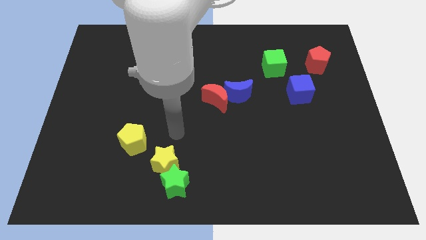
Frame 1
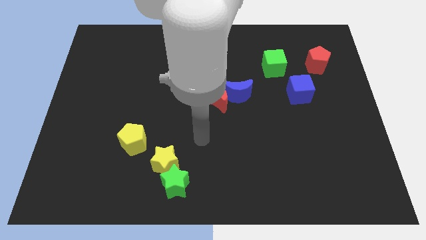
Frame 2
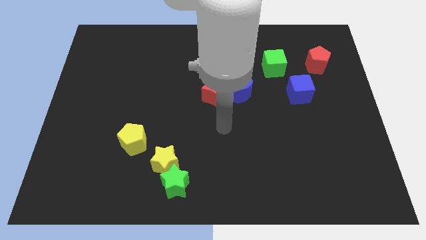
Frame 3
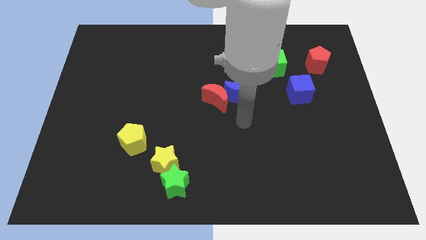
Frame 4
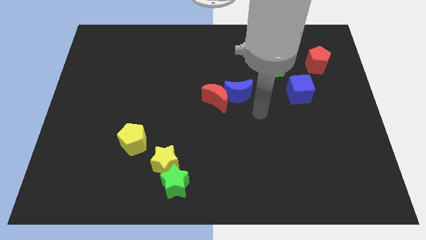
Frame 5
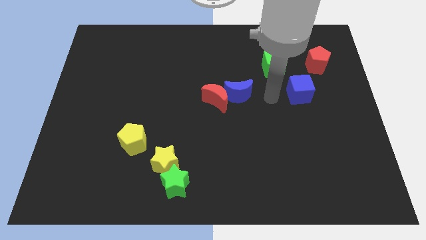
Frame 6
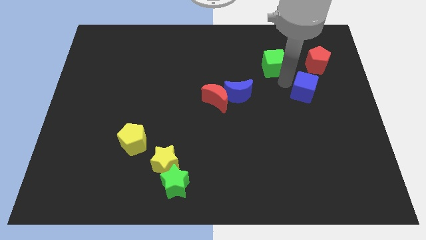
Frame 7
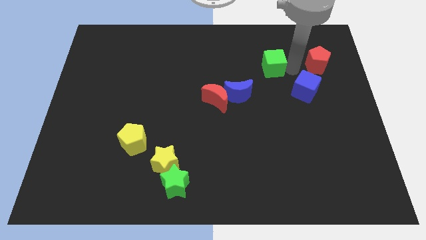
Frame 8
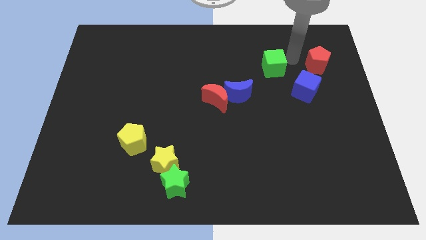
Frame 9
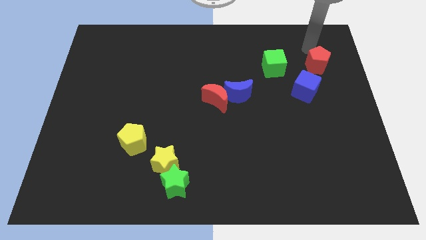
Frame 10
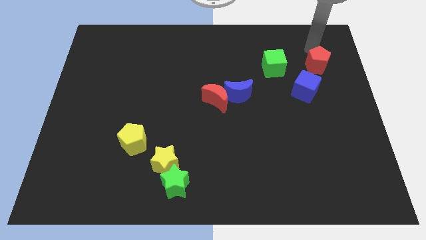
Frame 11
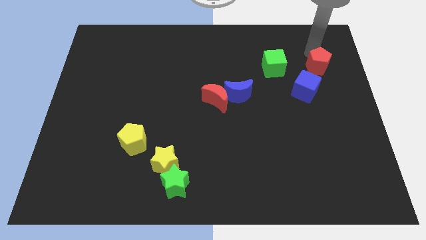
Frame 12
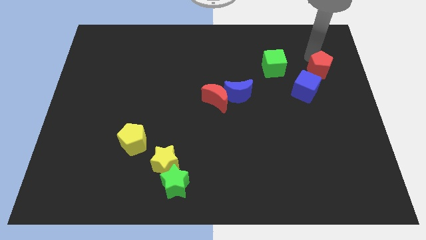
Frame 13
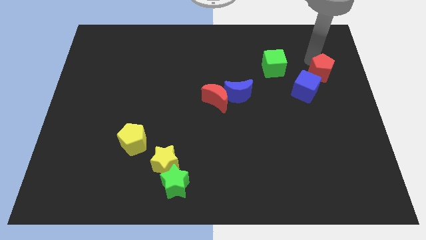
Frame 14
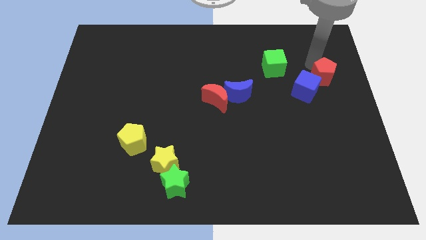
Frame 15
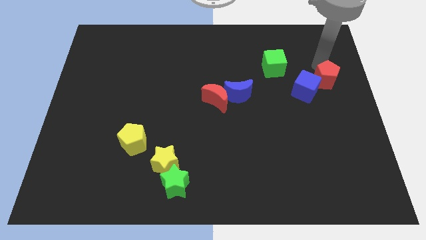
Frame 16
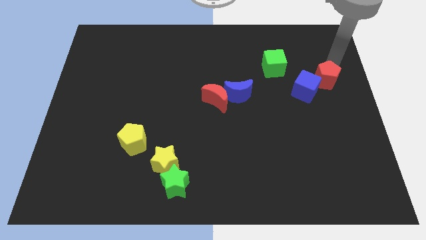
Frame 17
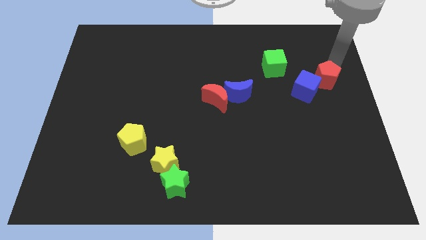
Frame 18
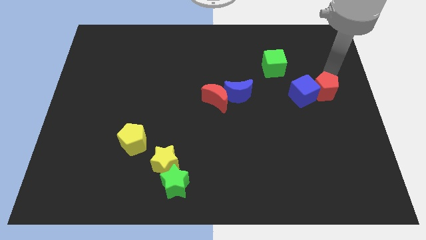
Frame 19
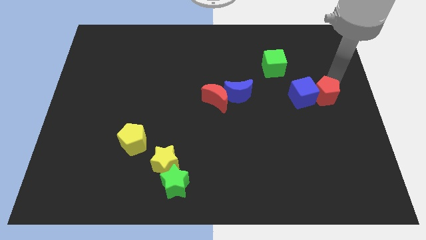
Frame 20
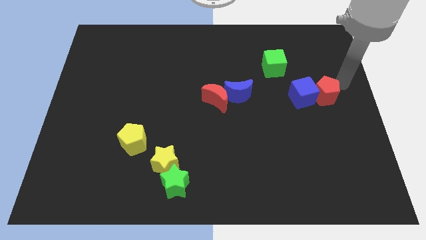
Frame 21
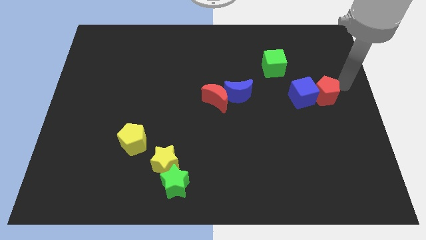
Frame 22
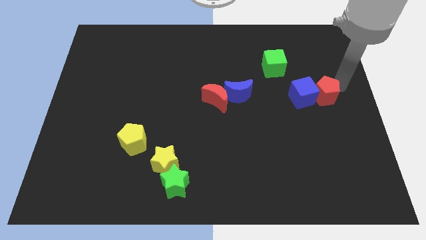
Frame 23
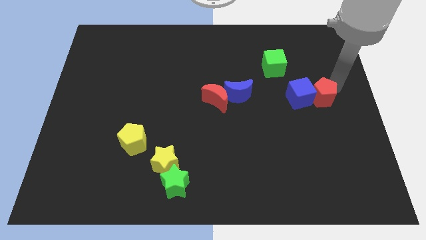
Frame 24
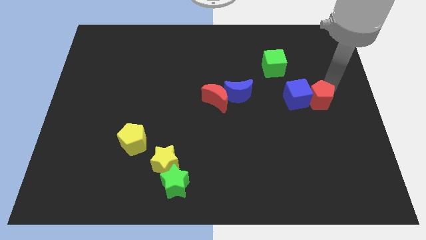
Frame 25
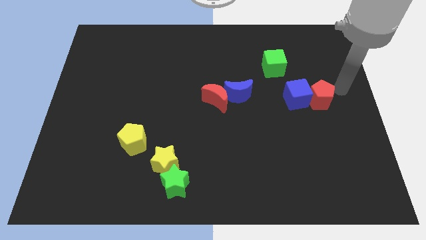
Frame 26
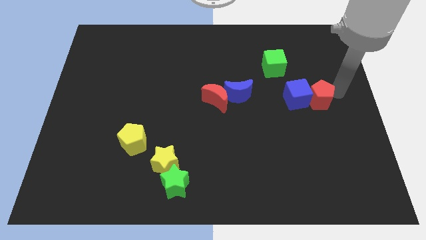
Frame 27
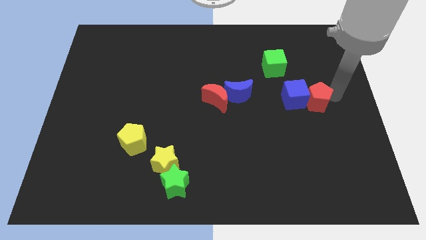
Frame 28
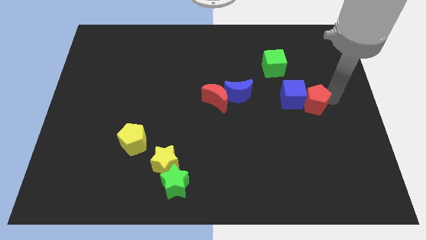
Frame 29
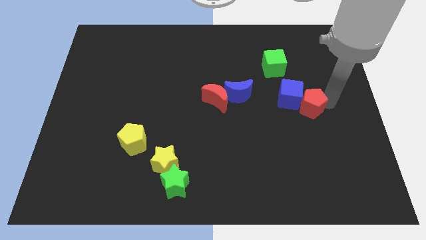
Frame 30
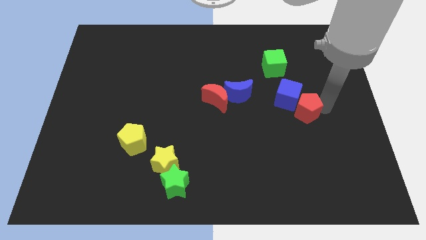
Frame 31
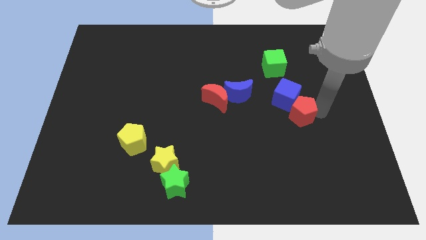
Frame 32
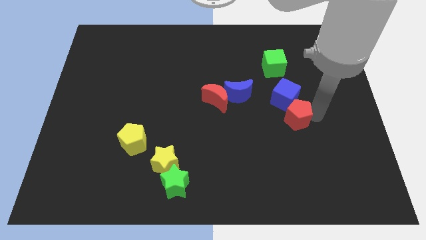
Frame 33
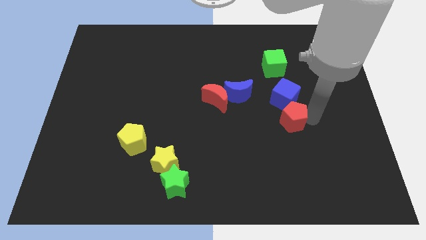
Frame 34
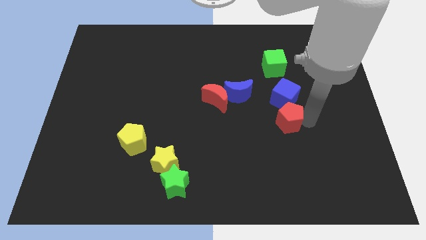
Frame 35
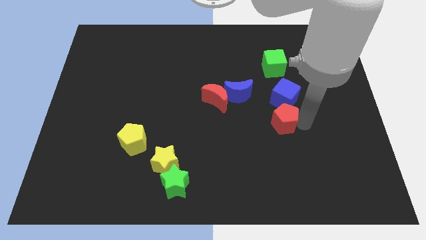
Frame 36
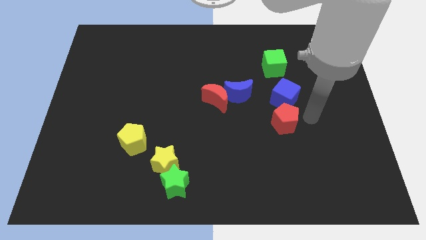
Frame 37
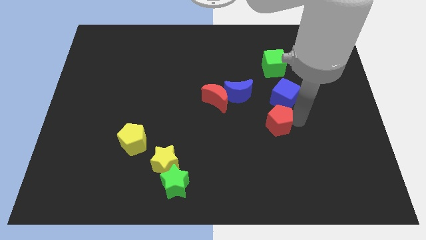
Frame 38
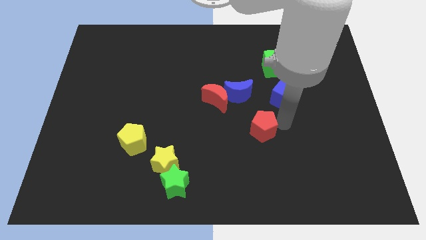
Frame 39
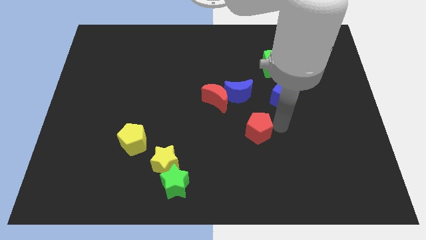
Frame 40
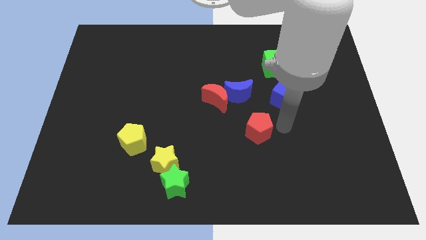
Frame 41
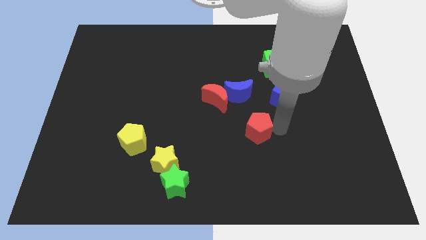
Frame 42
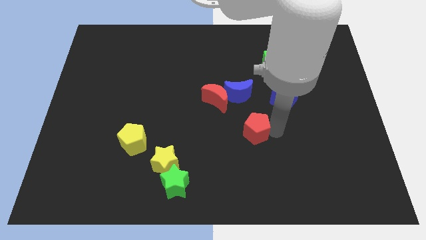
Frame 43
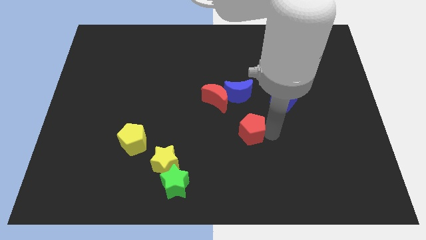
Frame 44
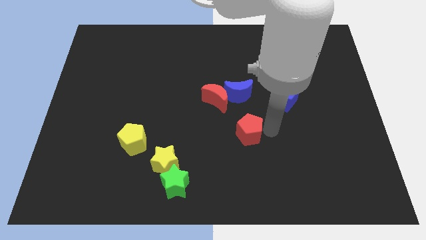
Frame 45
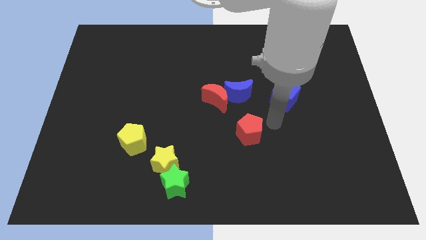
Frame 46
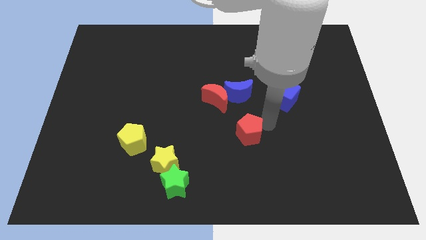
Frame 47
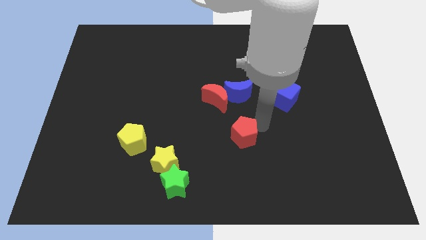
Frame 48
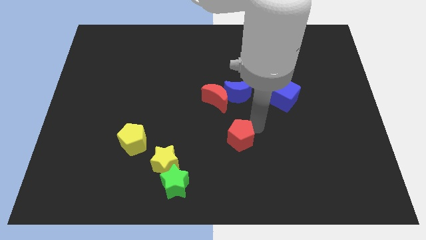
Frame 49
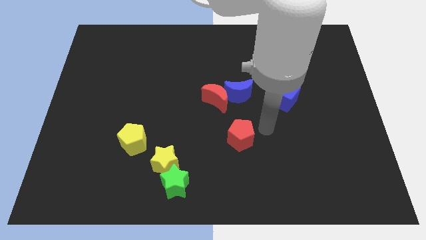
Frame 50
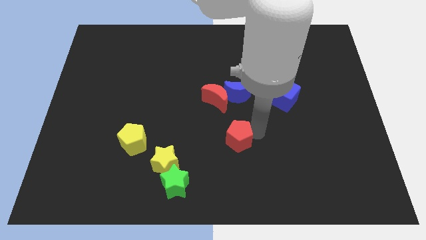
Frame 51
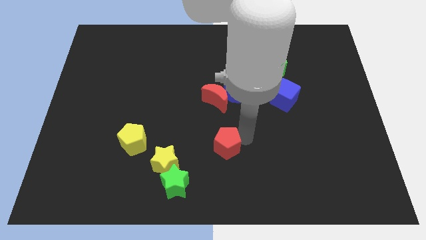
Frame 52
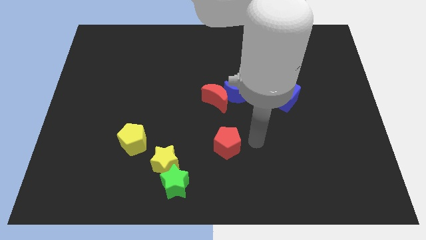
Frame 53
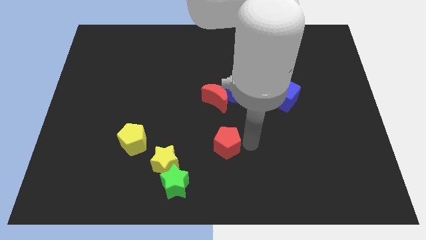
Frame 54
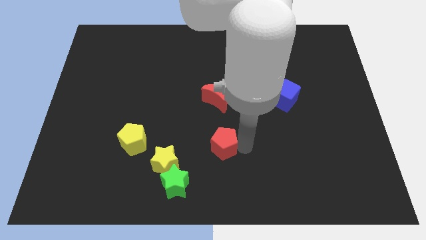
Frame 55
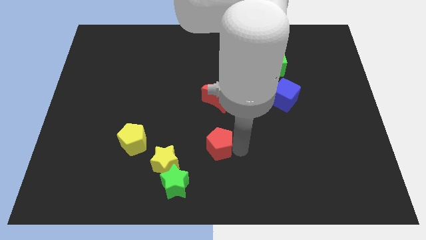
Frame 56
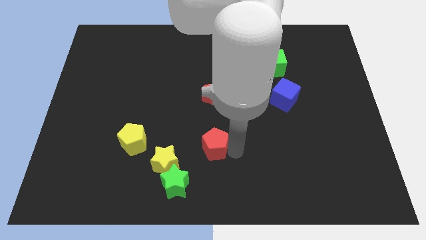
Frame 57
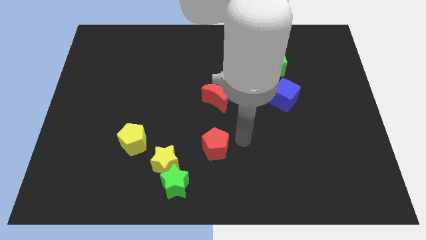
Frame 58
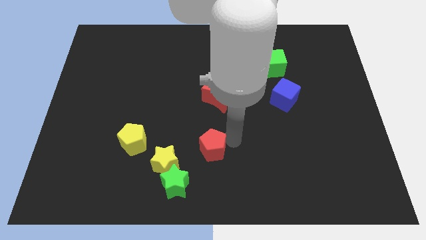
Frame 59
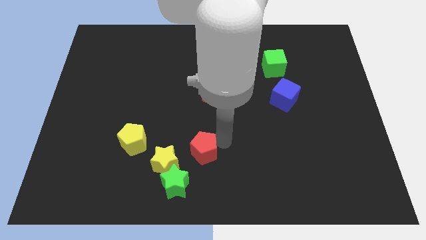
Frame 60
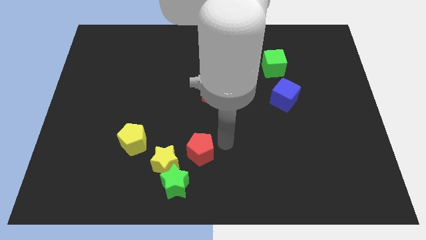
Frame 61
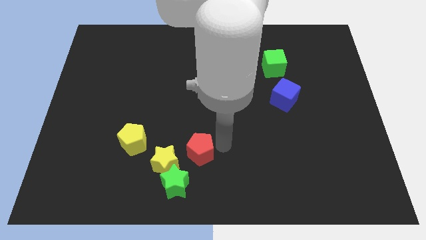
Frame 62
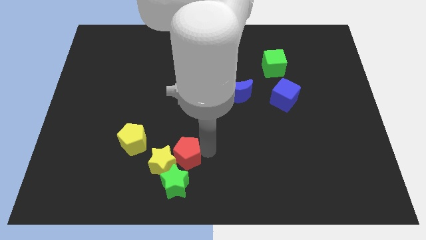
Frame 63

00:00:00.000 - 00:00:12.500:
move the red pentagon towards the yellow star

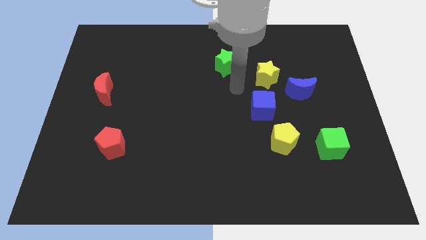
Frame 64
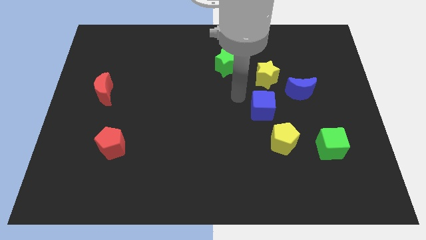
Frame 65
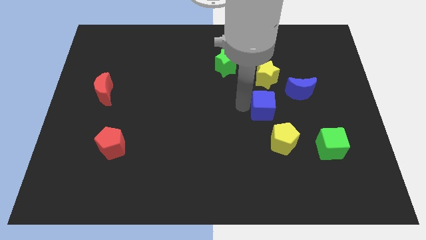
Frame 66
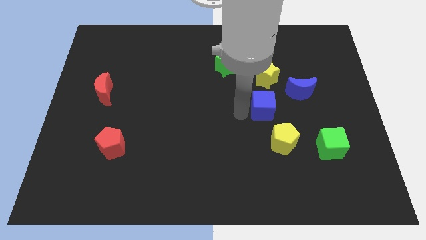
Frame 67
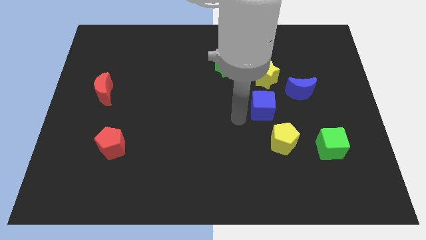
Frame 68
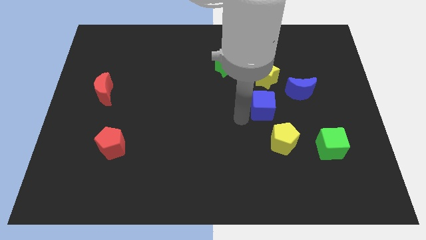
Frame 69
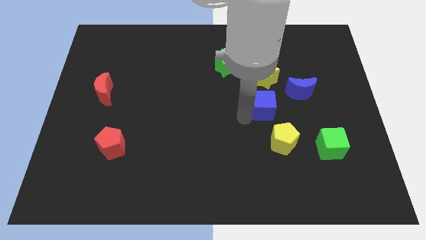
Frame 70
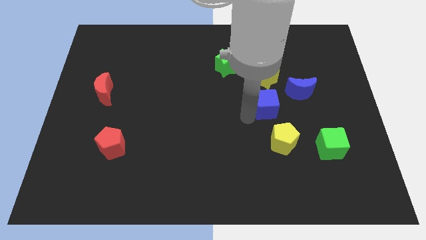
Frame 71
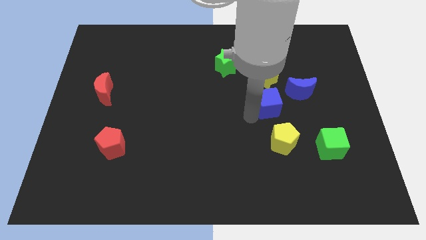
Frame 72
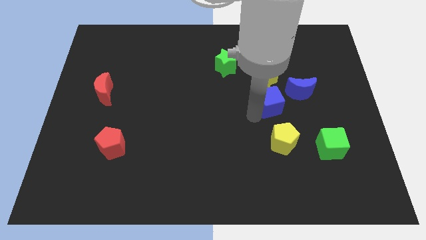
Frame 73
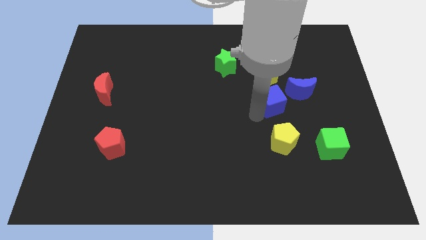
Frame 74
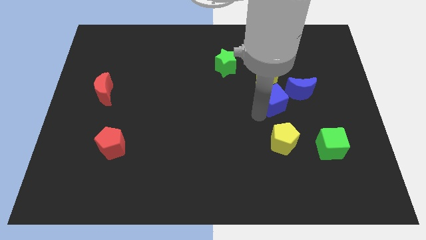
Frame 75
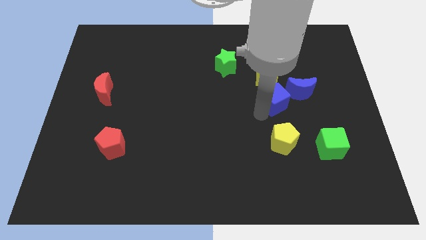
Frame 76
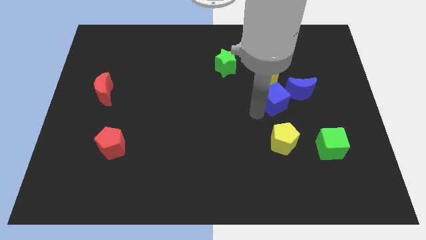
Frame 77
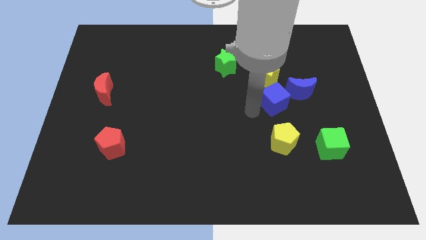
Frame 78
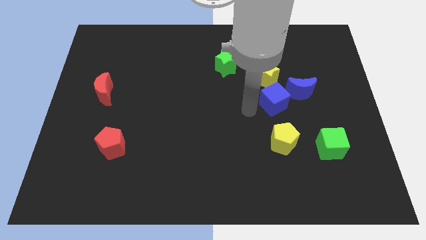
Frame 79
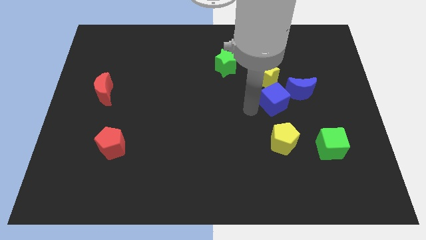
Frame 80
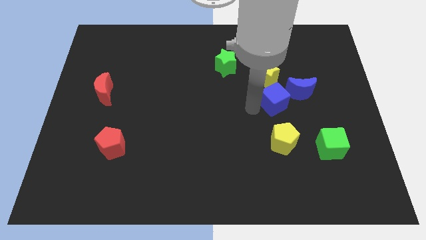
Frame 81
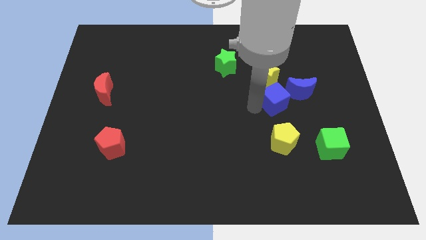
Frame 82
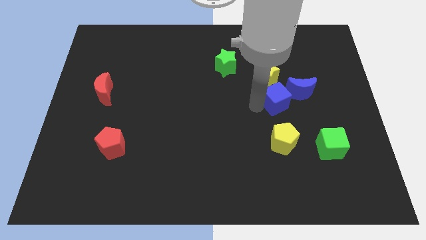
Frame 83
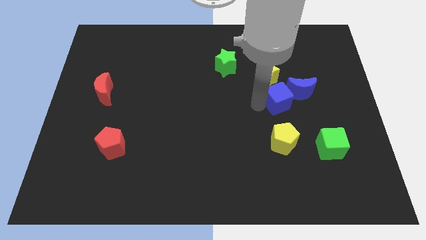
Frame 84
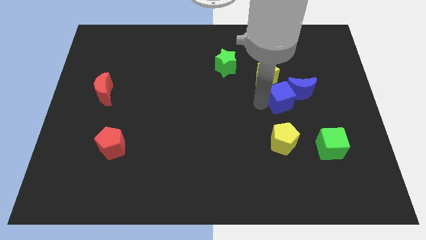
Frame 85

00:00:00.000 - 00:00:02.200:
slide the blue cube towards the blue moon
